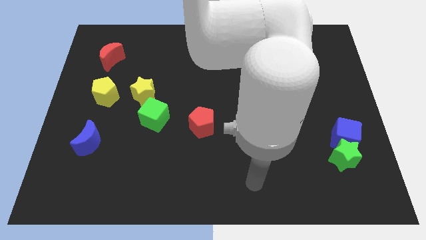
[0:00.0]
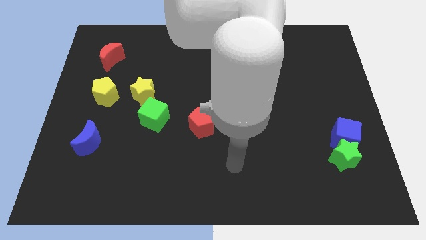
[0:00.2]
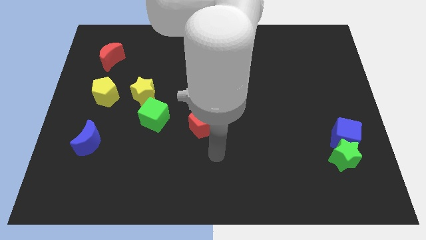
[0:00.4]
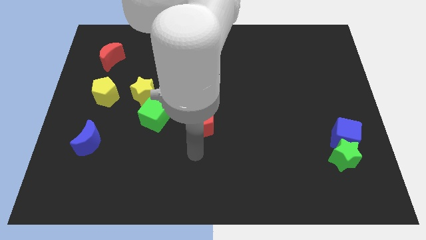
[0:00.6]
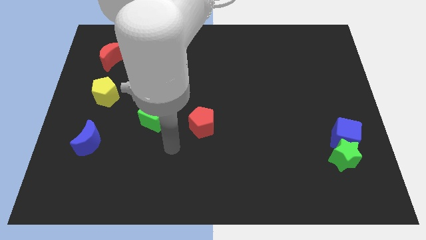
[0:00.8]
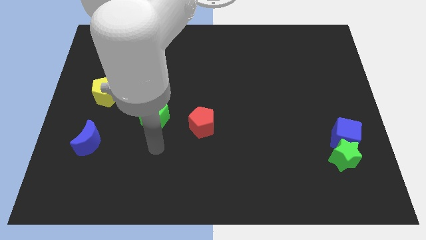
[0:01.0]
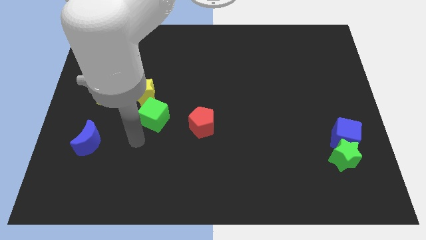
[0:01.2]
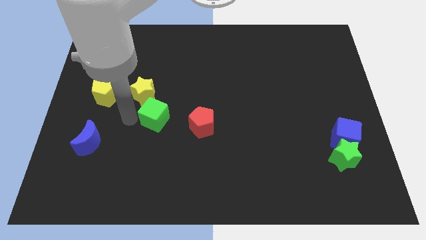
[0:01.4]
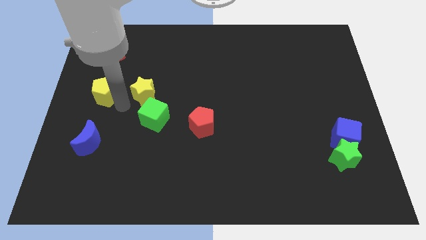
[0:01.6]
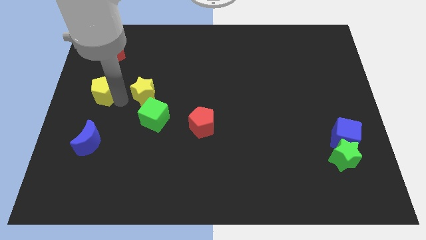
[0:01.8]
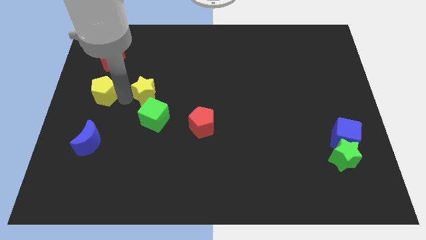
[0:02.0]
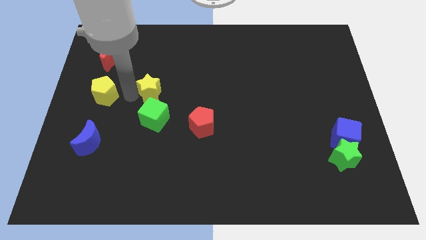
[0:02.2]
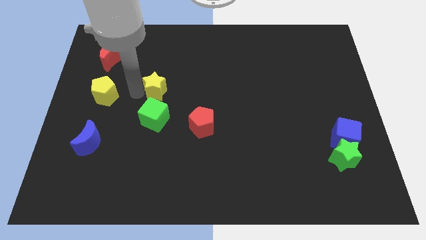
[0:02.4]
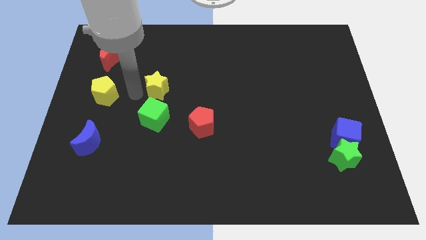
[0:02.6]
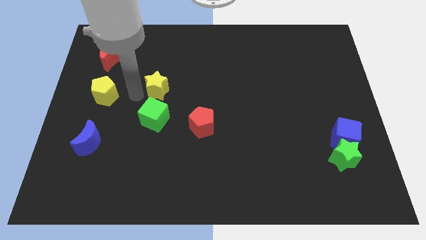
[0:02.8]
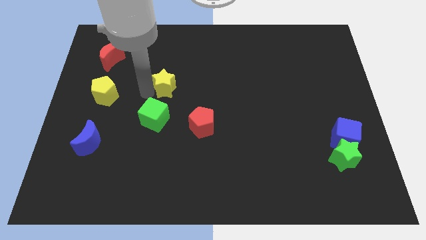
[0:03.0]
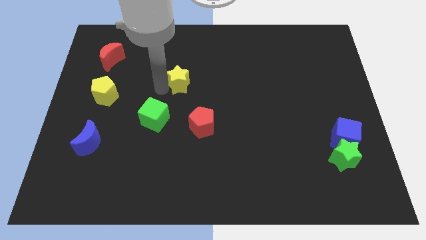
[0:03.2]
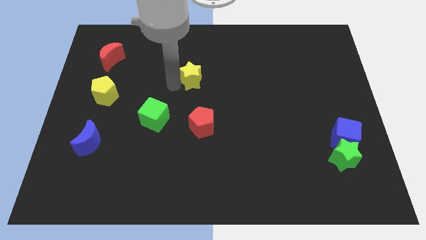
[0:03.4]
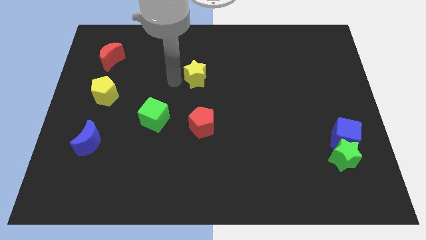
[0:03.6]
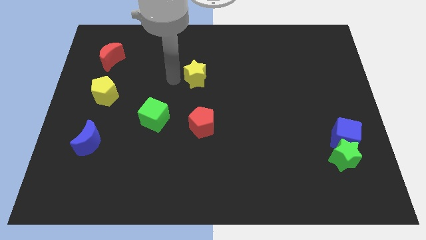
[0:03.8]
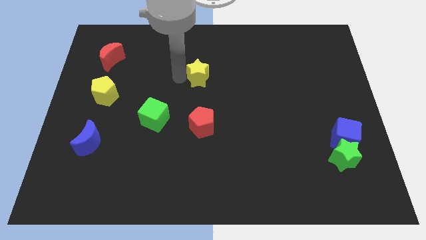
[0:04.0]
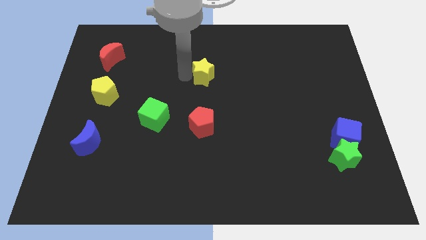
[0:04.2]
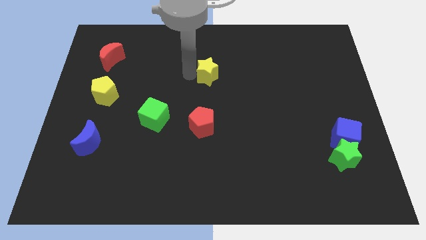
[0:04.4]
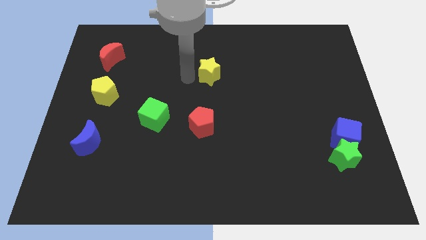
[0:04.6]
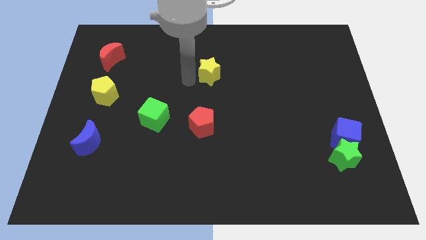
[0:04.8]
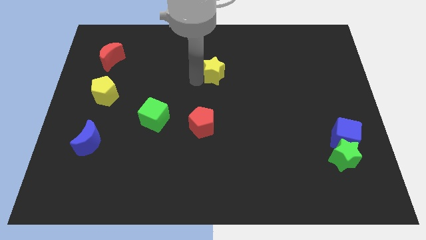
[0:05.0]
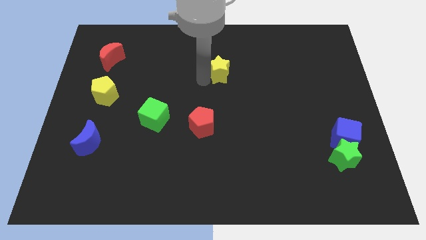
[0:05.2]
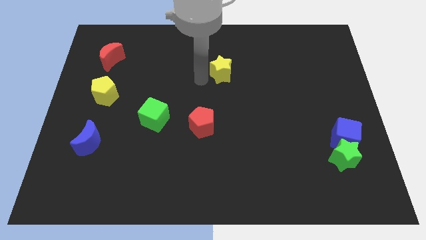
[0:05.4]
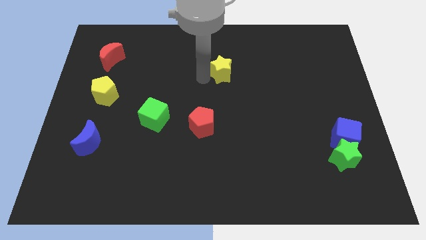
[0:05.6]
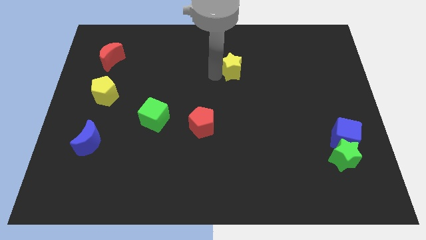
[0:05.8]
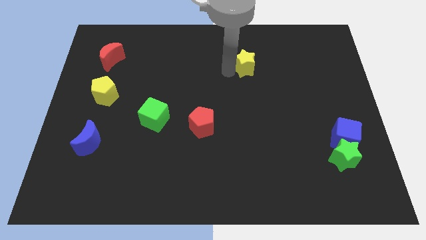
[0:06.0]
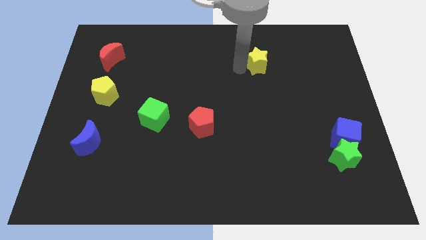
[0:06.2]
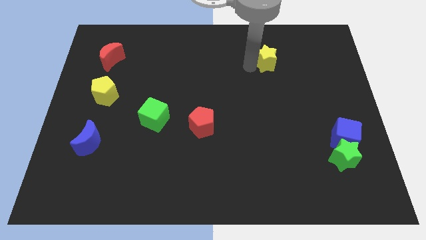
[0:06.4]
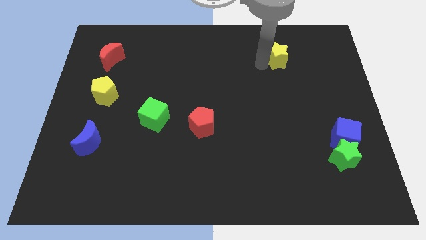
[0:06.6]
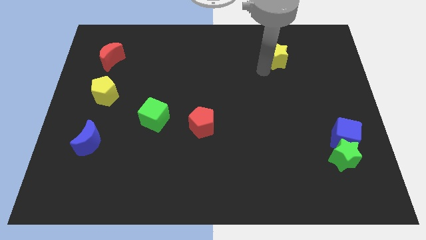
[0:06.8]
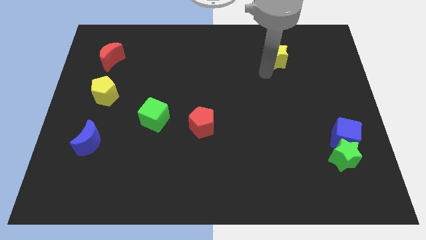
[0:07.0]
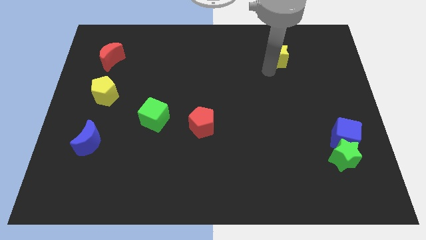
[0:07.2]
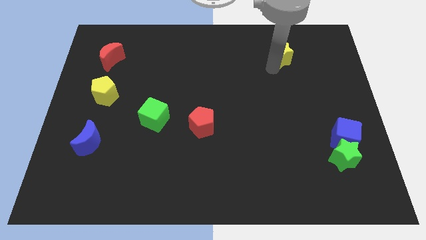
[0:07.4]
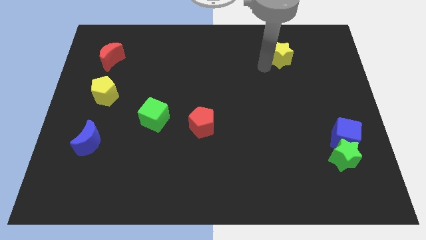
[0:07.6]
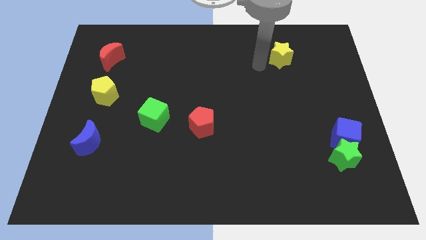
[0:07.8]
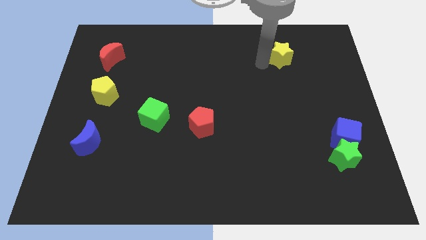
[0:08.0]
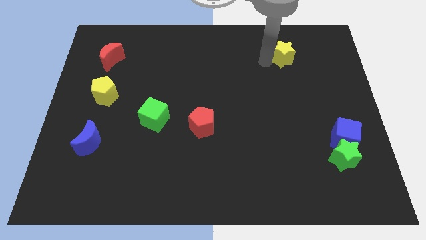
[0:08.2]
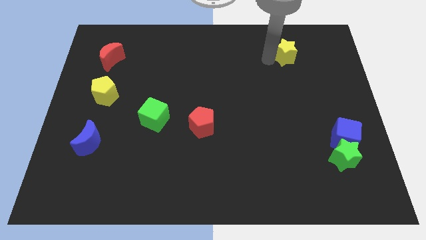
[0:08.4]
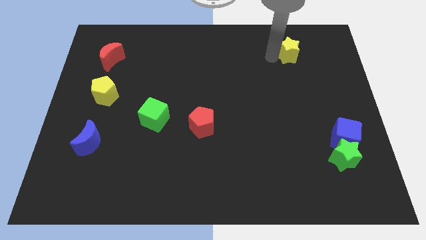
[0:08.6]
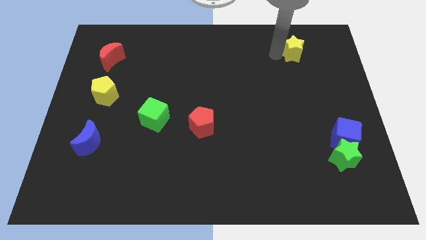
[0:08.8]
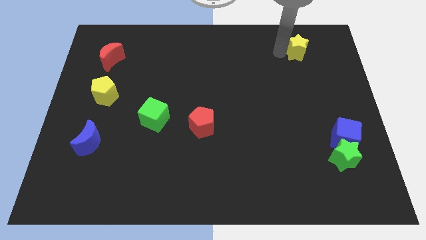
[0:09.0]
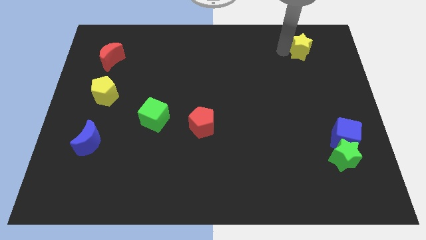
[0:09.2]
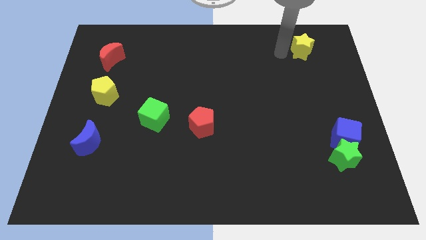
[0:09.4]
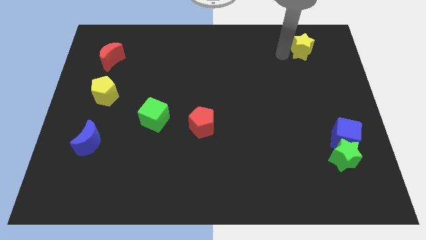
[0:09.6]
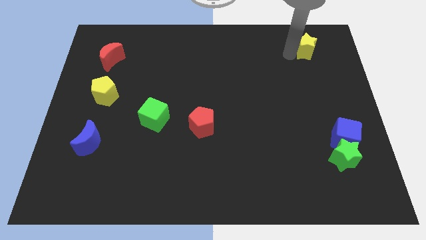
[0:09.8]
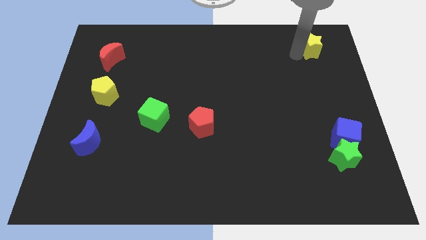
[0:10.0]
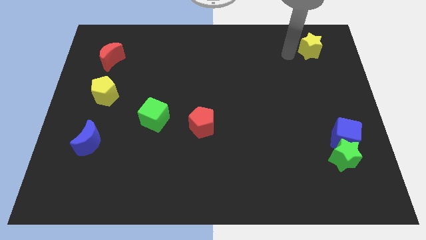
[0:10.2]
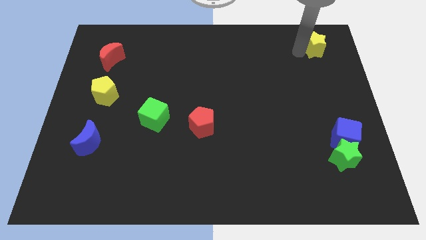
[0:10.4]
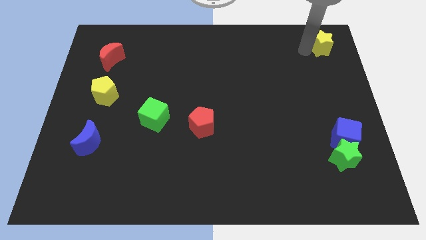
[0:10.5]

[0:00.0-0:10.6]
put the yellow star to the top right of the board
